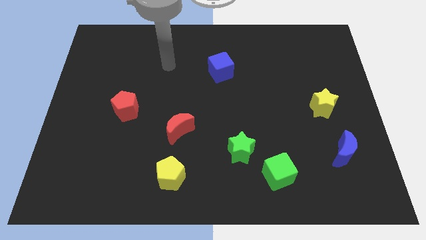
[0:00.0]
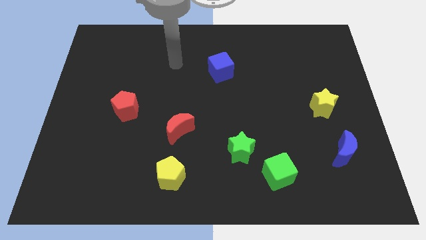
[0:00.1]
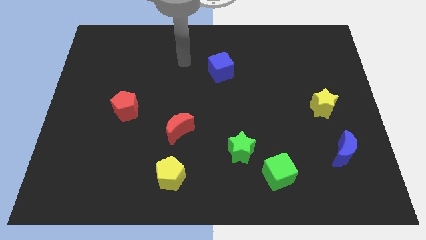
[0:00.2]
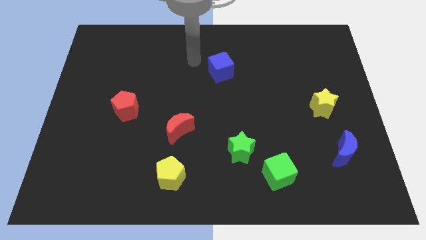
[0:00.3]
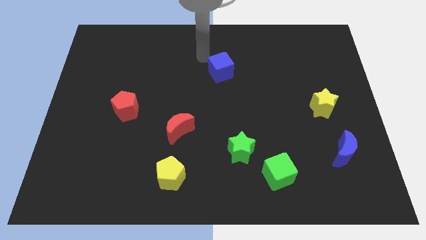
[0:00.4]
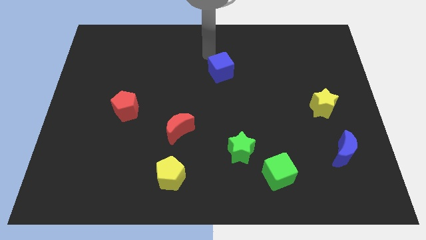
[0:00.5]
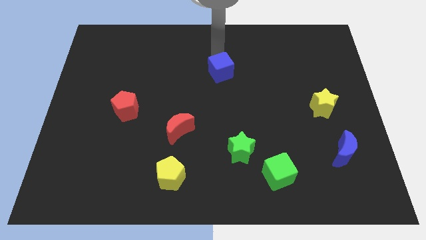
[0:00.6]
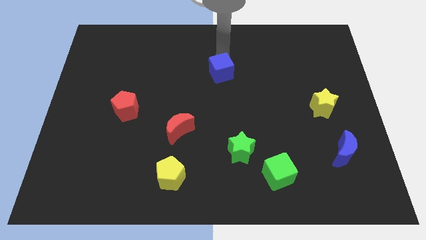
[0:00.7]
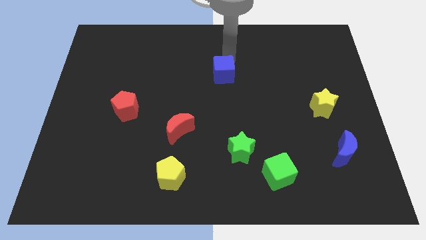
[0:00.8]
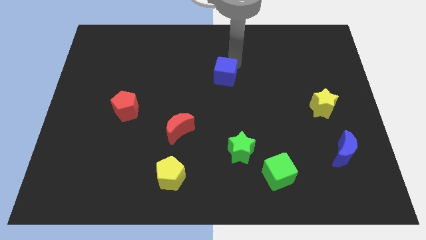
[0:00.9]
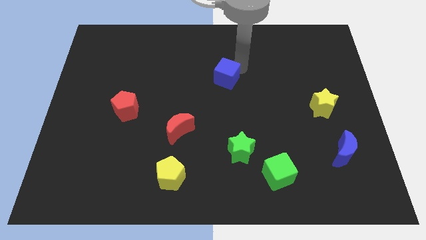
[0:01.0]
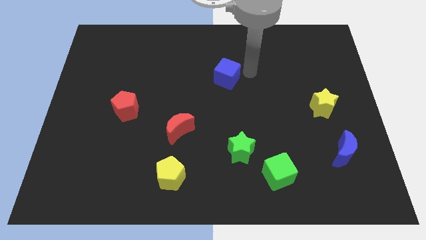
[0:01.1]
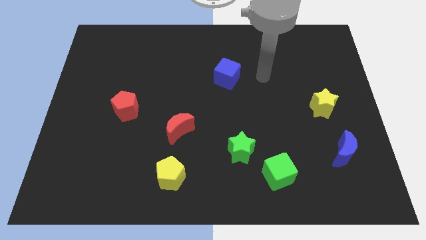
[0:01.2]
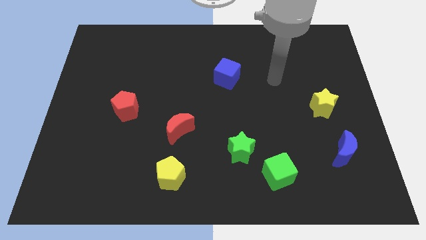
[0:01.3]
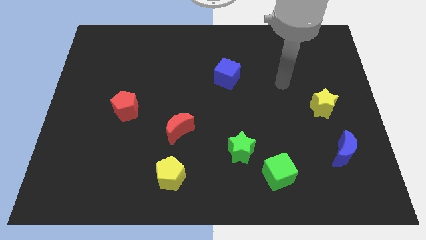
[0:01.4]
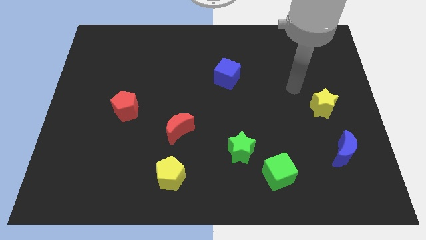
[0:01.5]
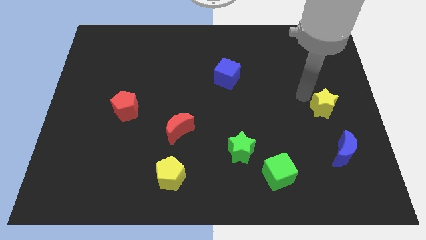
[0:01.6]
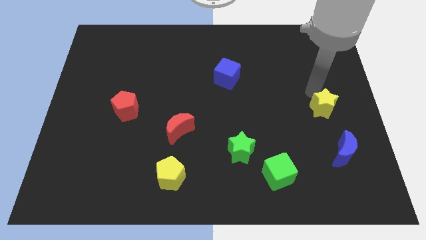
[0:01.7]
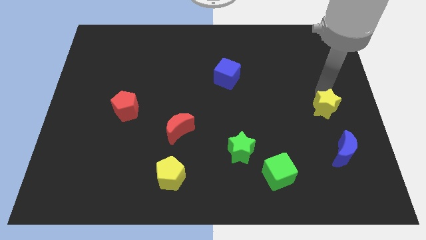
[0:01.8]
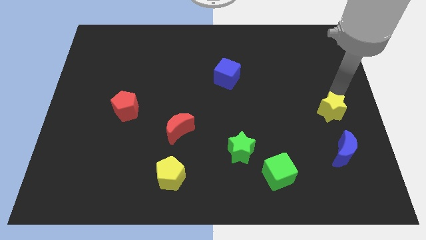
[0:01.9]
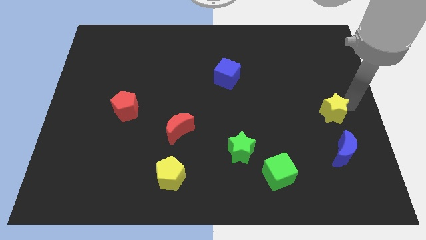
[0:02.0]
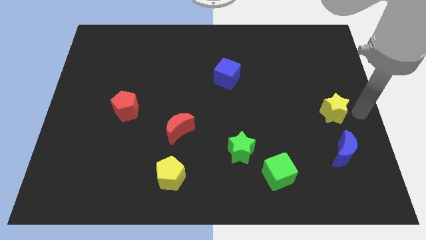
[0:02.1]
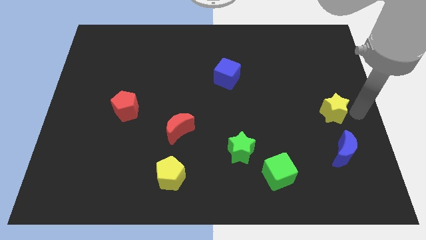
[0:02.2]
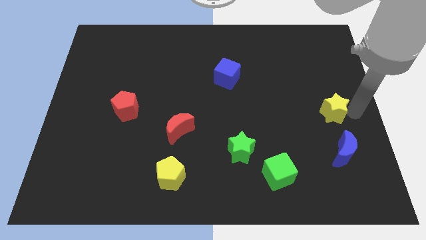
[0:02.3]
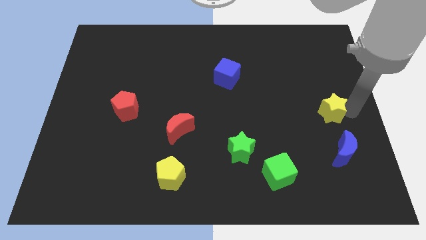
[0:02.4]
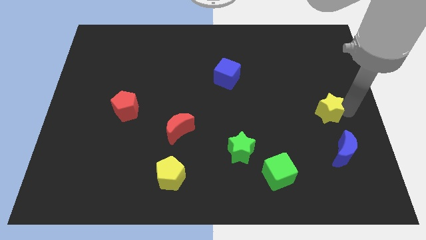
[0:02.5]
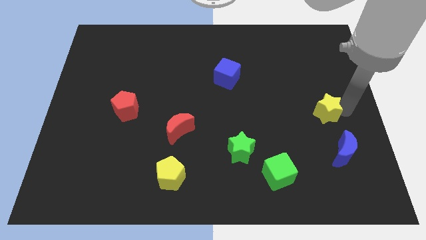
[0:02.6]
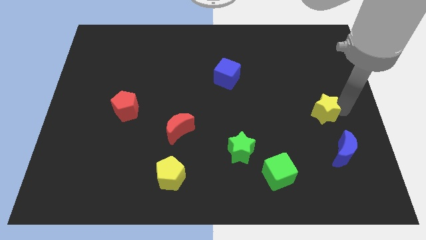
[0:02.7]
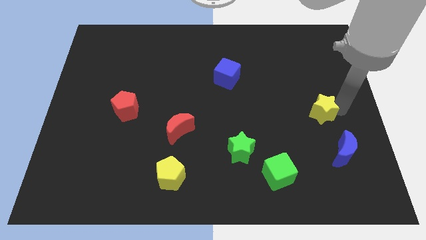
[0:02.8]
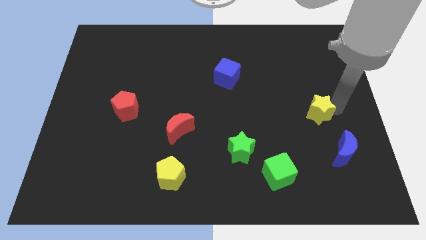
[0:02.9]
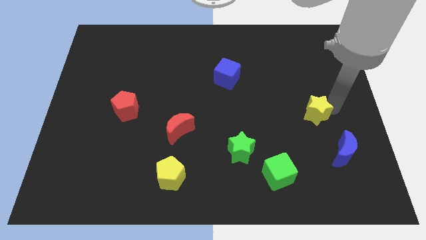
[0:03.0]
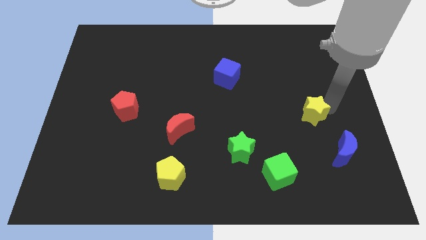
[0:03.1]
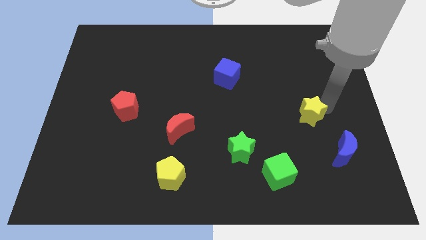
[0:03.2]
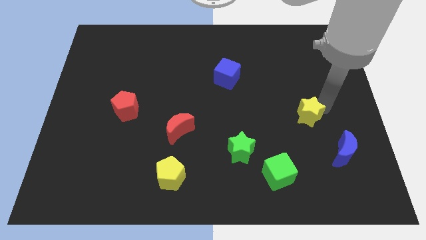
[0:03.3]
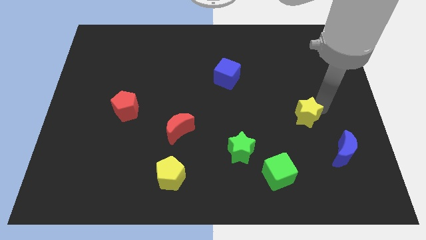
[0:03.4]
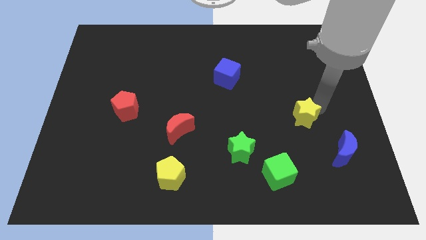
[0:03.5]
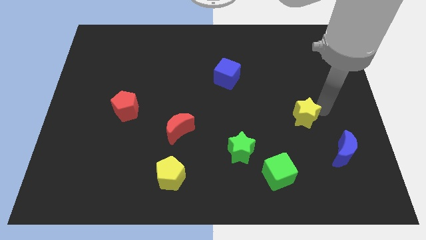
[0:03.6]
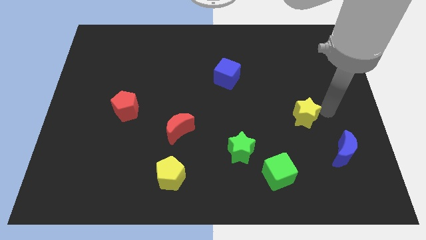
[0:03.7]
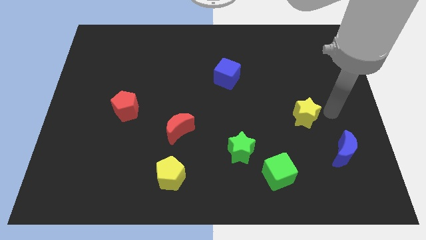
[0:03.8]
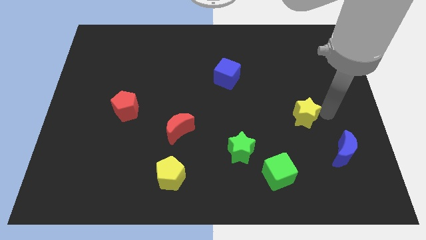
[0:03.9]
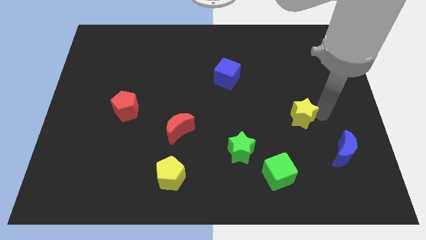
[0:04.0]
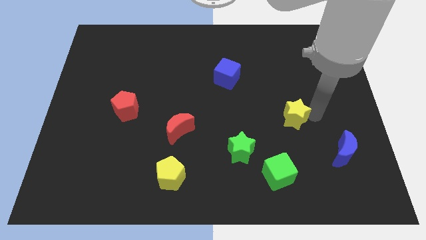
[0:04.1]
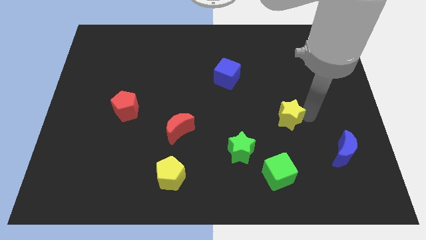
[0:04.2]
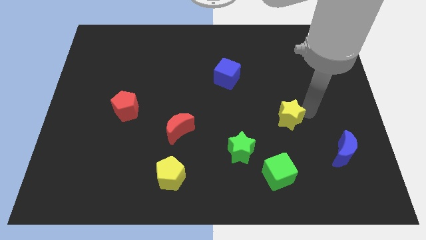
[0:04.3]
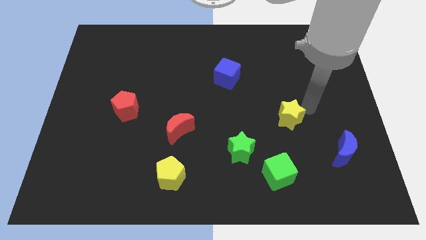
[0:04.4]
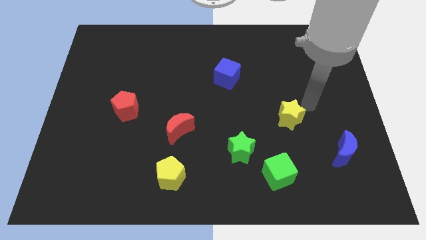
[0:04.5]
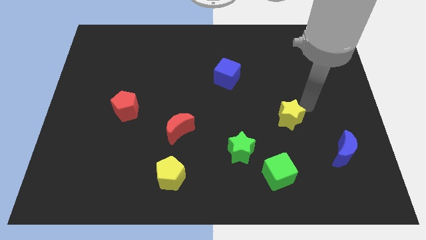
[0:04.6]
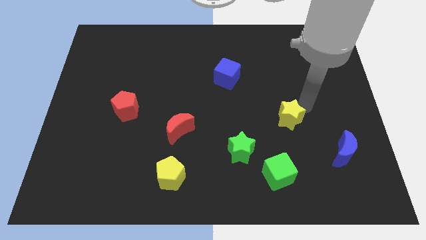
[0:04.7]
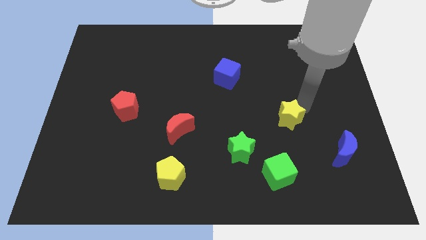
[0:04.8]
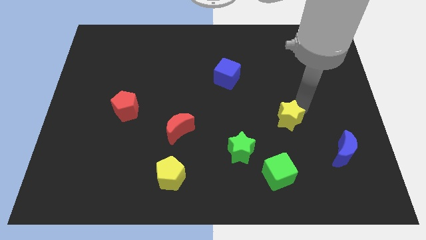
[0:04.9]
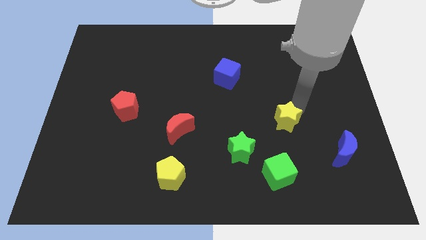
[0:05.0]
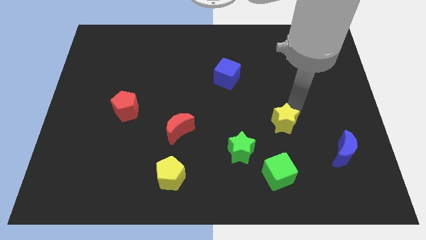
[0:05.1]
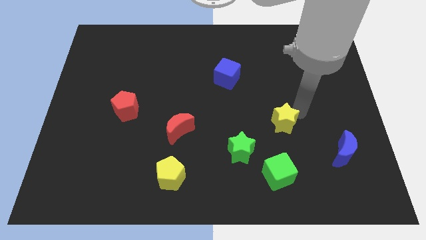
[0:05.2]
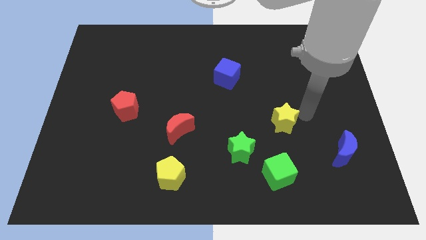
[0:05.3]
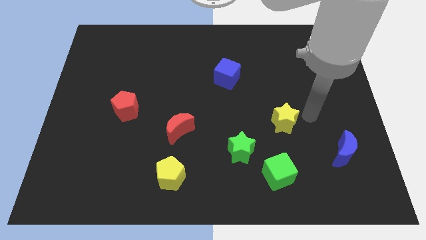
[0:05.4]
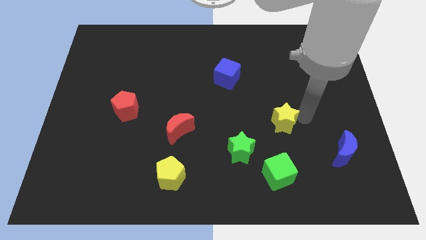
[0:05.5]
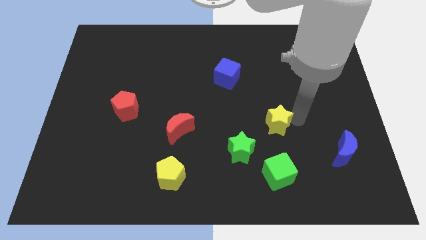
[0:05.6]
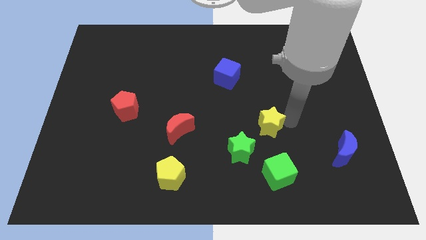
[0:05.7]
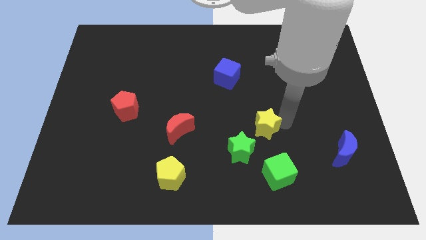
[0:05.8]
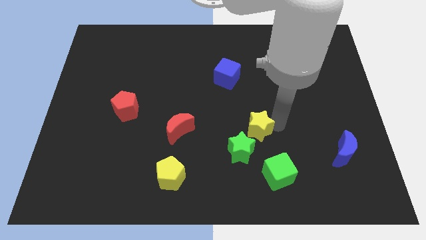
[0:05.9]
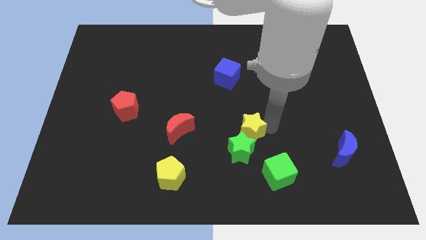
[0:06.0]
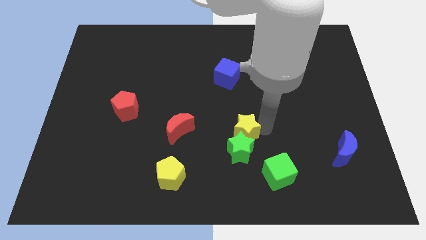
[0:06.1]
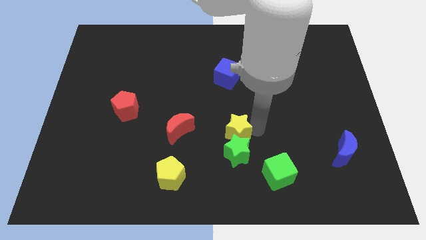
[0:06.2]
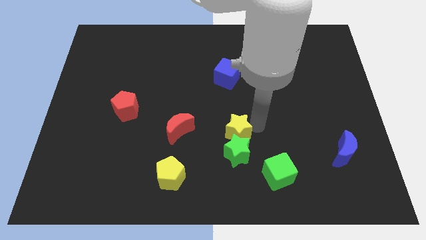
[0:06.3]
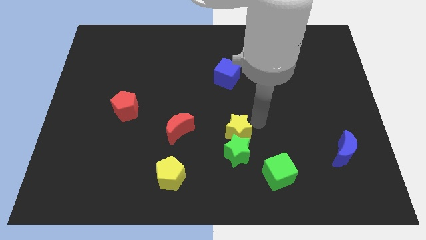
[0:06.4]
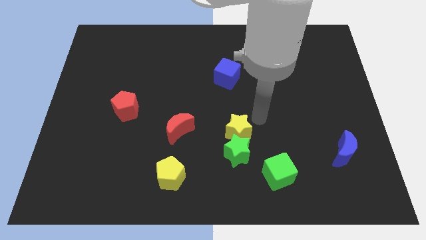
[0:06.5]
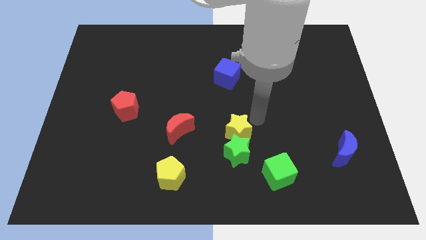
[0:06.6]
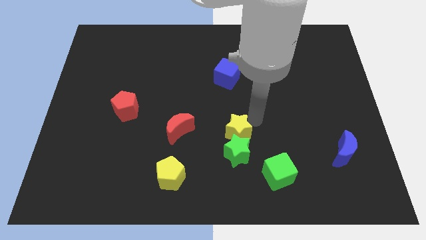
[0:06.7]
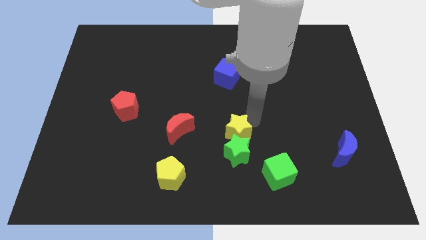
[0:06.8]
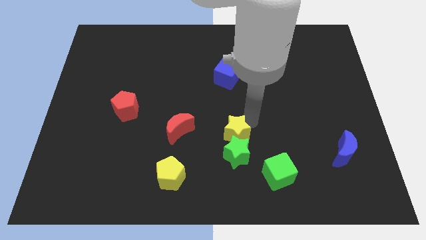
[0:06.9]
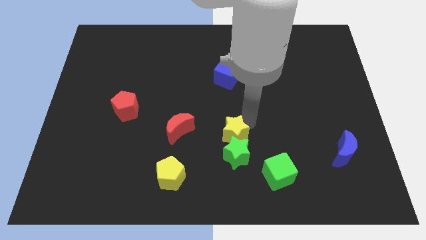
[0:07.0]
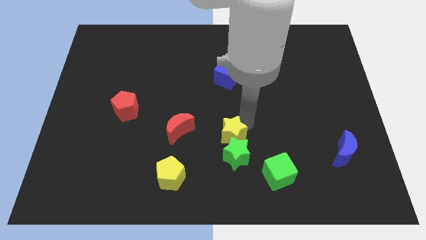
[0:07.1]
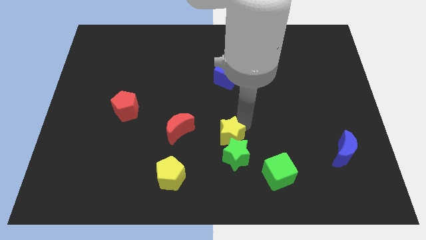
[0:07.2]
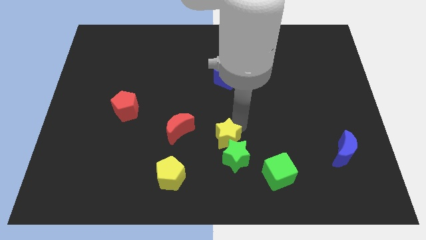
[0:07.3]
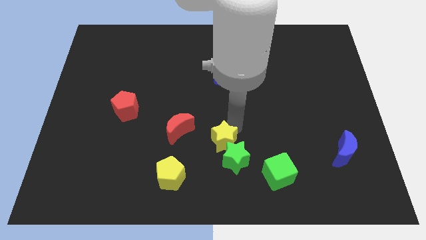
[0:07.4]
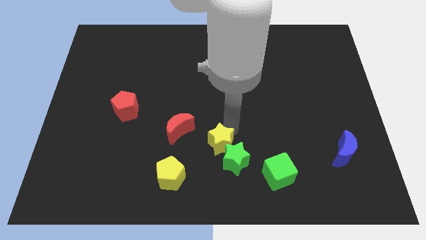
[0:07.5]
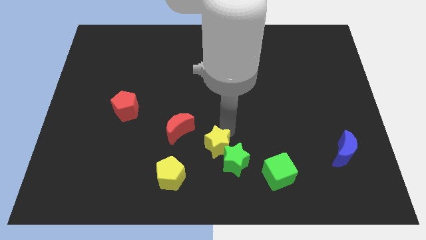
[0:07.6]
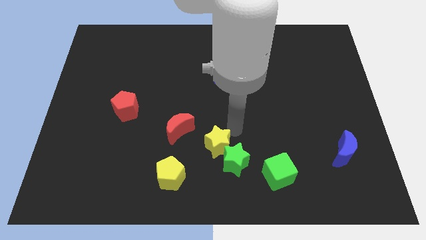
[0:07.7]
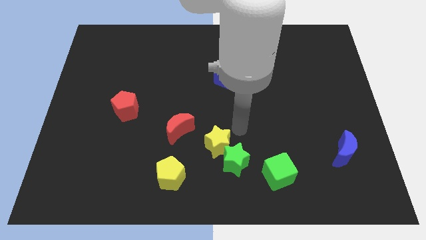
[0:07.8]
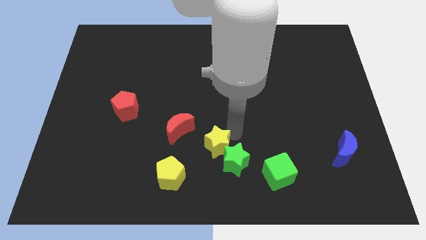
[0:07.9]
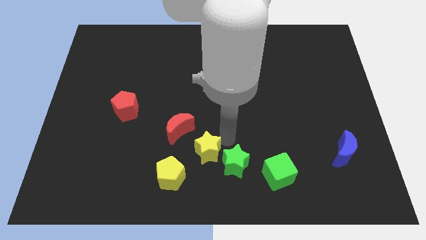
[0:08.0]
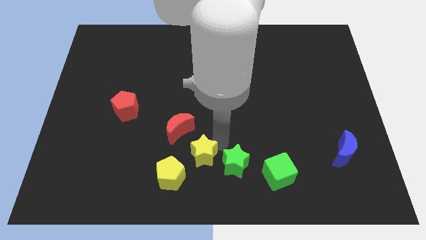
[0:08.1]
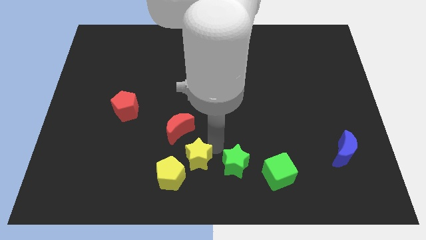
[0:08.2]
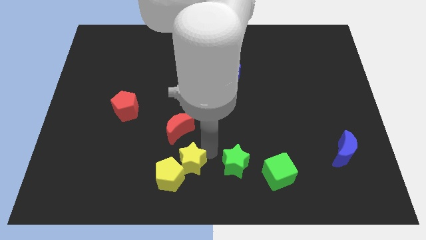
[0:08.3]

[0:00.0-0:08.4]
slide the yellow star towards the yellow pentagon
